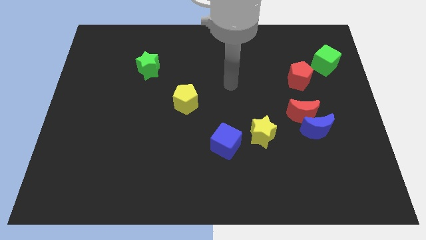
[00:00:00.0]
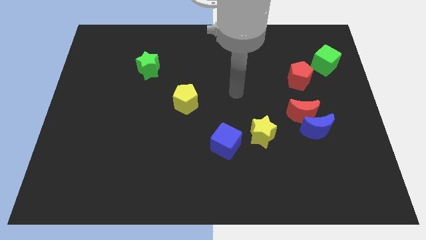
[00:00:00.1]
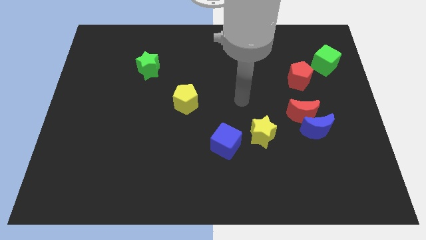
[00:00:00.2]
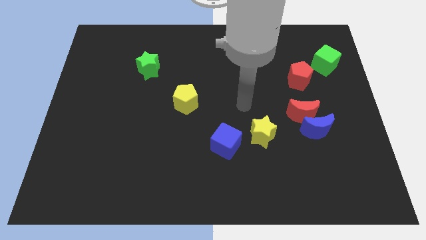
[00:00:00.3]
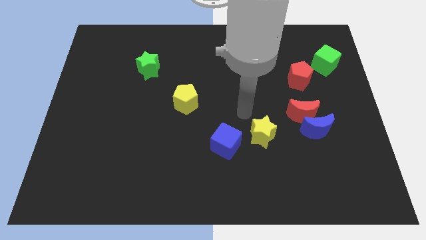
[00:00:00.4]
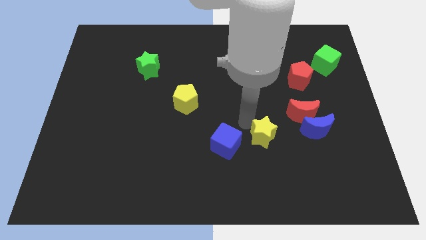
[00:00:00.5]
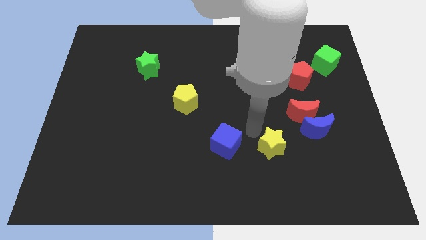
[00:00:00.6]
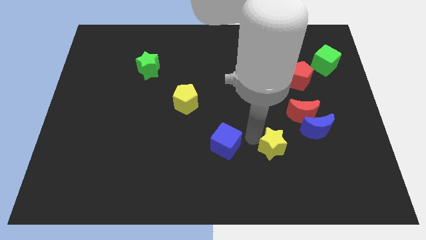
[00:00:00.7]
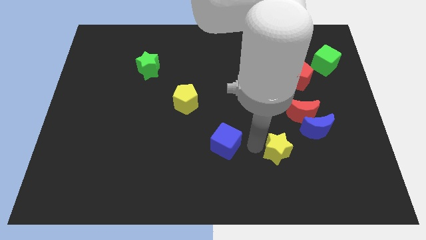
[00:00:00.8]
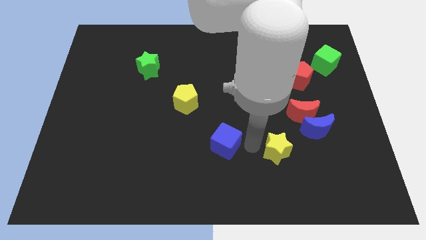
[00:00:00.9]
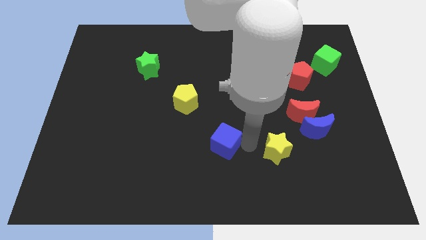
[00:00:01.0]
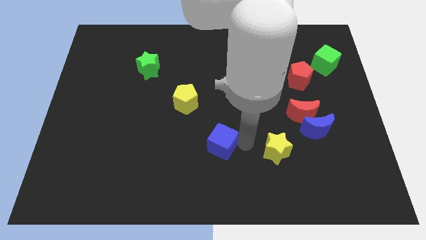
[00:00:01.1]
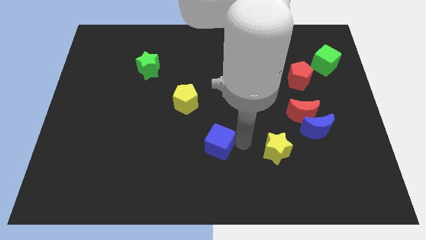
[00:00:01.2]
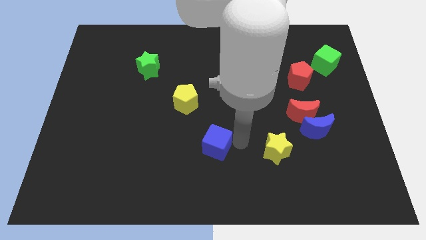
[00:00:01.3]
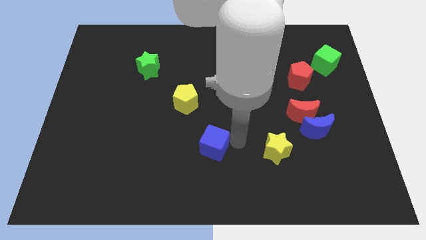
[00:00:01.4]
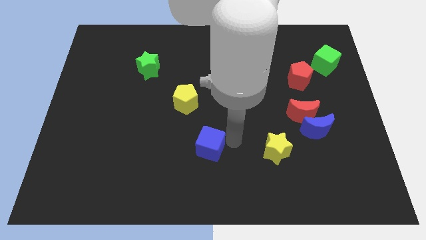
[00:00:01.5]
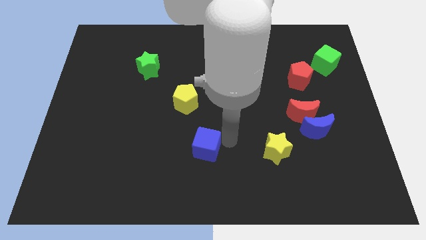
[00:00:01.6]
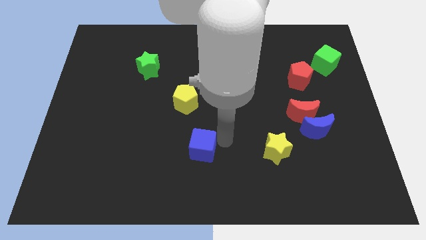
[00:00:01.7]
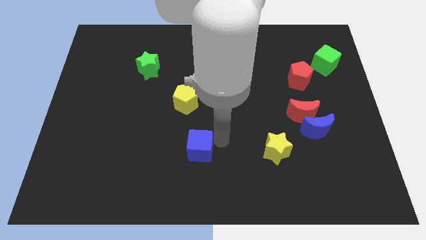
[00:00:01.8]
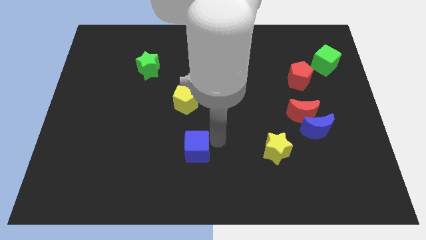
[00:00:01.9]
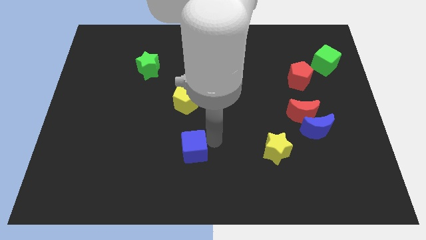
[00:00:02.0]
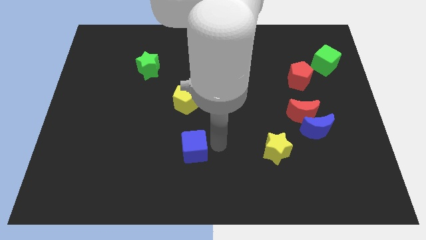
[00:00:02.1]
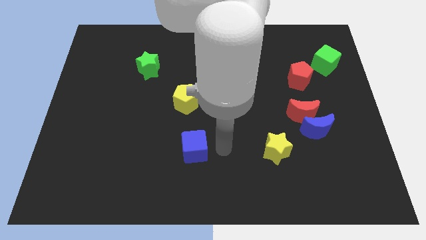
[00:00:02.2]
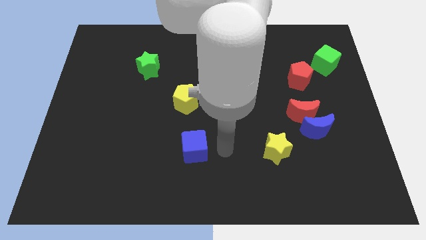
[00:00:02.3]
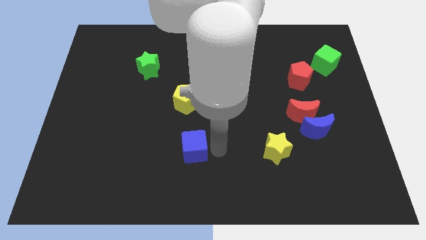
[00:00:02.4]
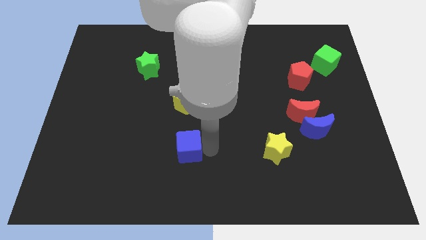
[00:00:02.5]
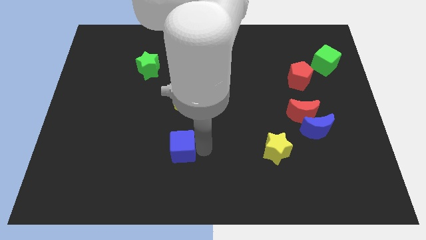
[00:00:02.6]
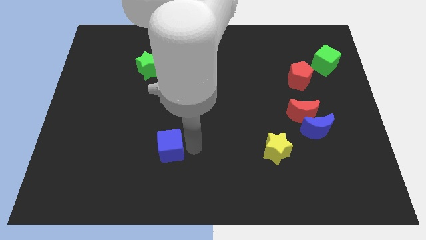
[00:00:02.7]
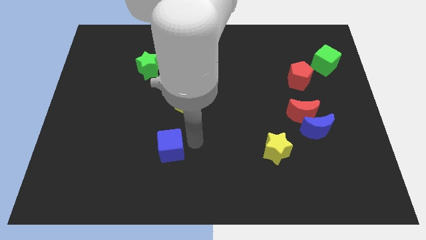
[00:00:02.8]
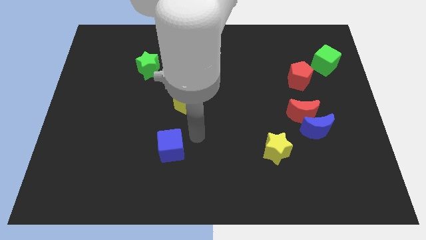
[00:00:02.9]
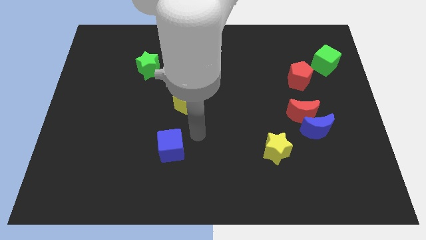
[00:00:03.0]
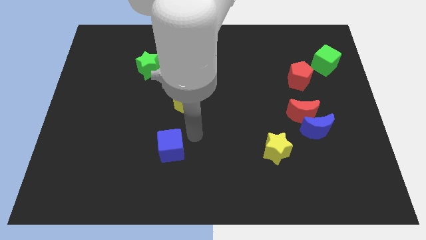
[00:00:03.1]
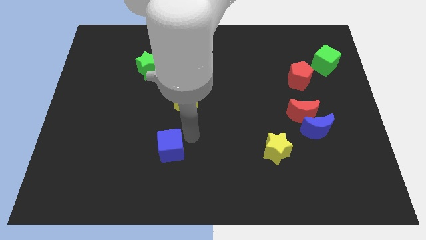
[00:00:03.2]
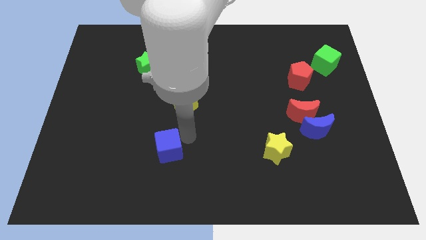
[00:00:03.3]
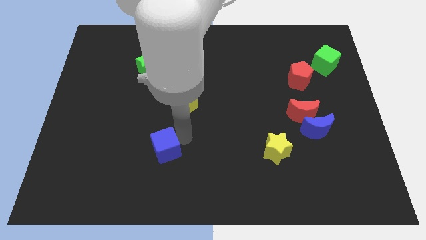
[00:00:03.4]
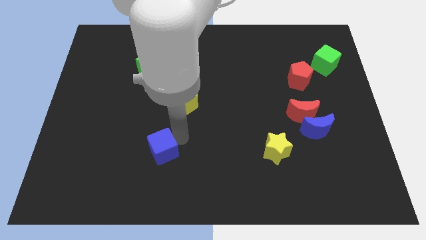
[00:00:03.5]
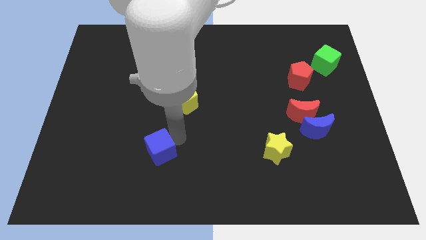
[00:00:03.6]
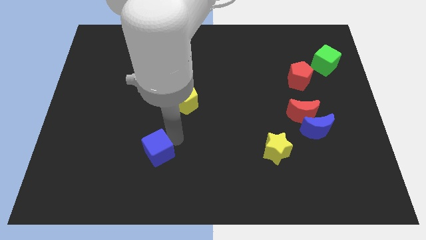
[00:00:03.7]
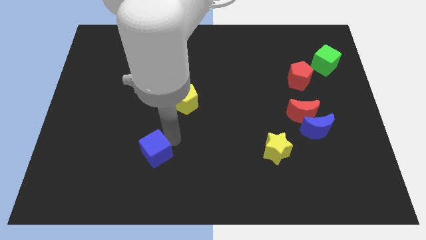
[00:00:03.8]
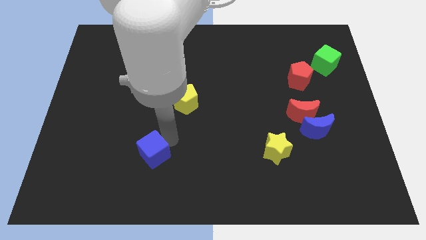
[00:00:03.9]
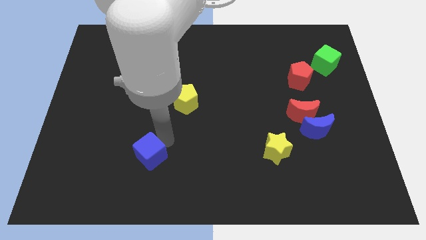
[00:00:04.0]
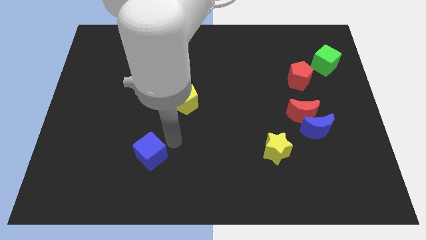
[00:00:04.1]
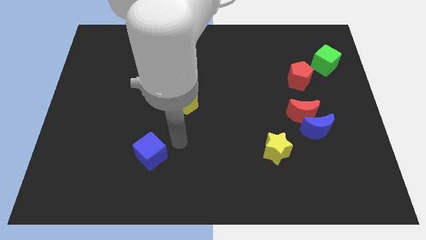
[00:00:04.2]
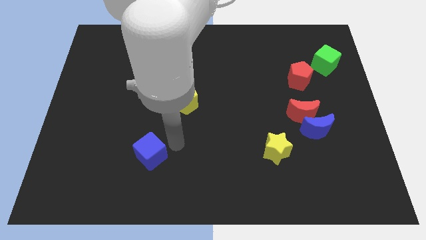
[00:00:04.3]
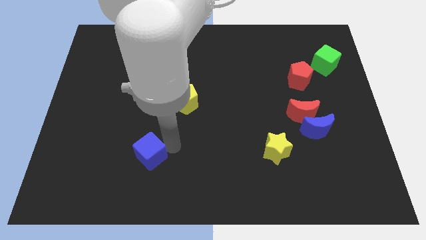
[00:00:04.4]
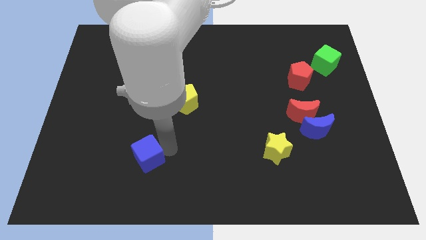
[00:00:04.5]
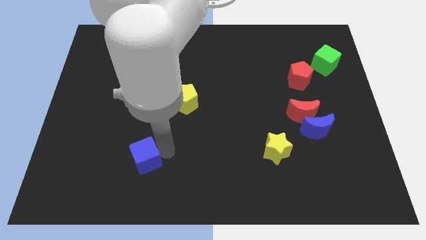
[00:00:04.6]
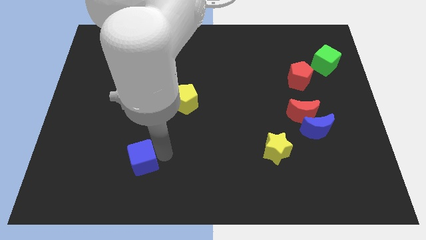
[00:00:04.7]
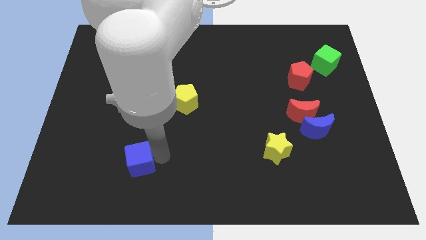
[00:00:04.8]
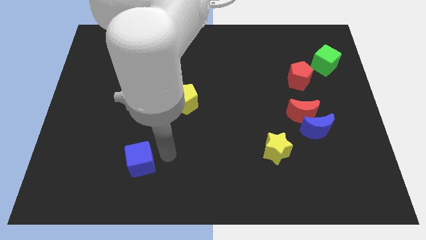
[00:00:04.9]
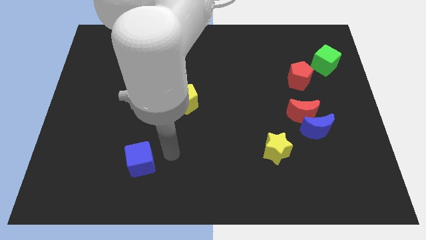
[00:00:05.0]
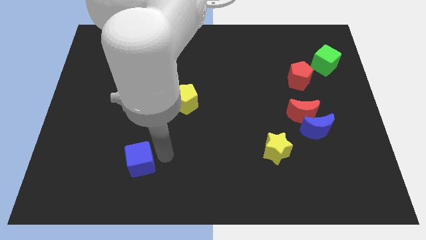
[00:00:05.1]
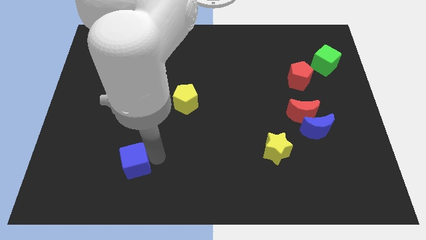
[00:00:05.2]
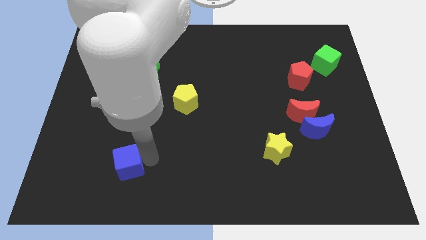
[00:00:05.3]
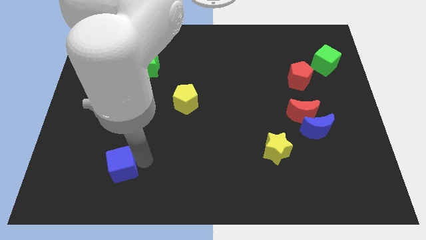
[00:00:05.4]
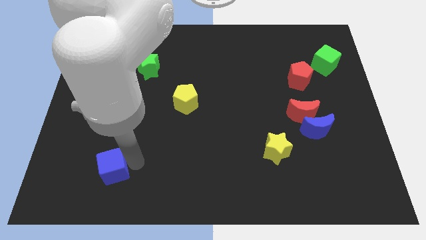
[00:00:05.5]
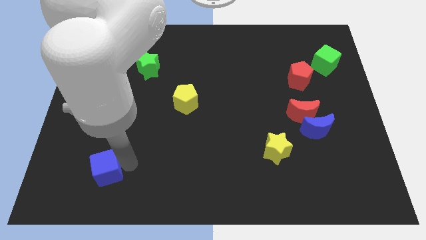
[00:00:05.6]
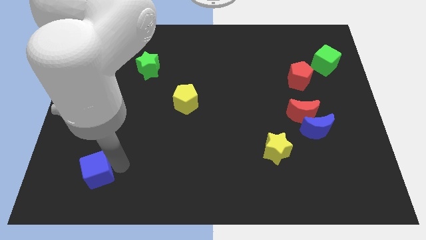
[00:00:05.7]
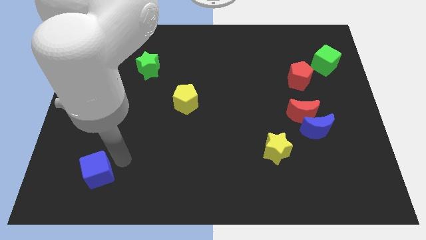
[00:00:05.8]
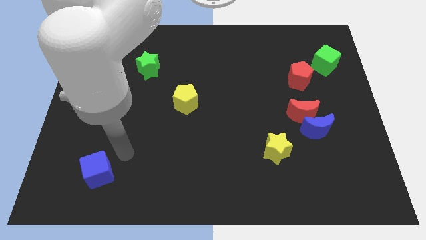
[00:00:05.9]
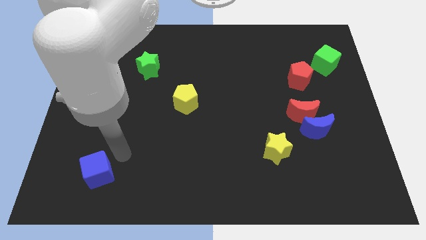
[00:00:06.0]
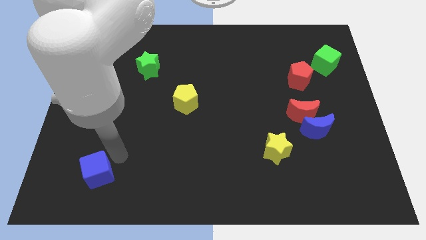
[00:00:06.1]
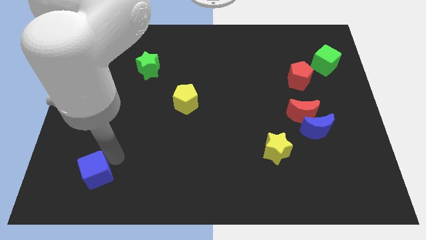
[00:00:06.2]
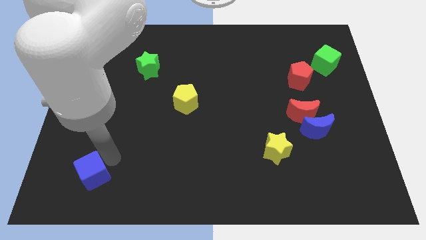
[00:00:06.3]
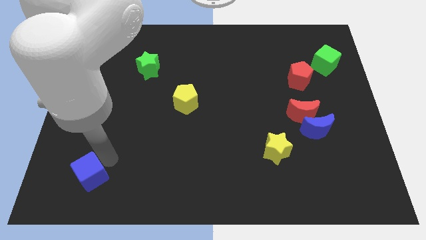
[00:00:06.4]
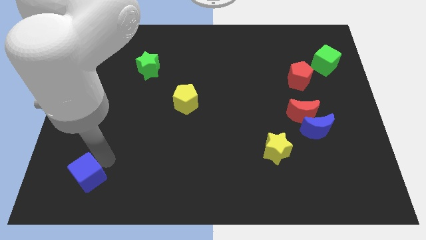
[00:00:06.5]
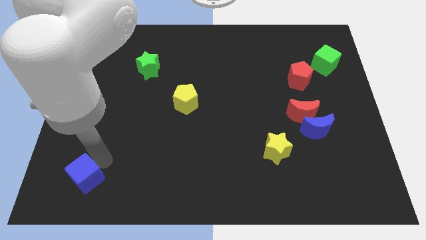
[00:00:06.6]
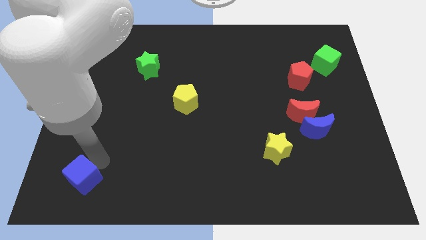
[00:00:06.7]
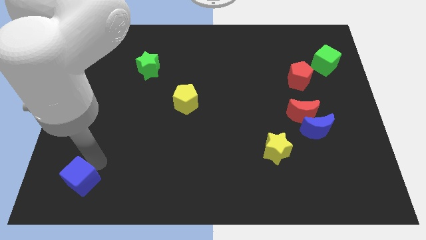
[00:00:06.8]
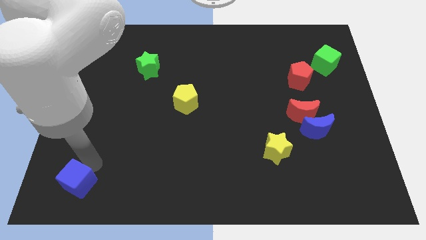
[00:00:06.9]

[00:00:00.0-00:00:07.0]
slide the blue cube to the bottom left
